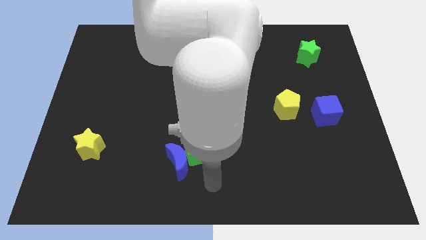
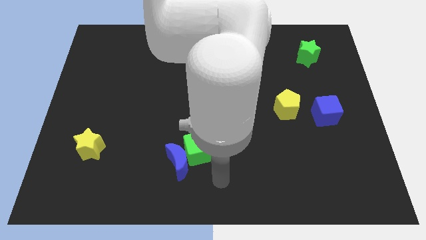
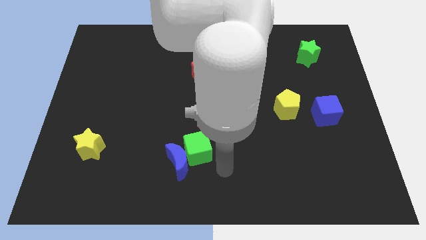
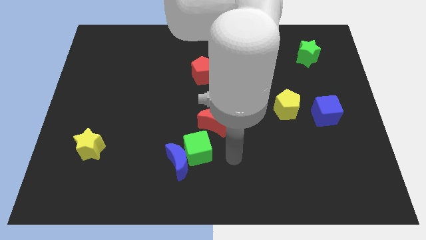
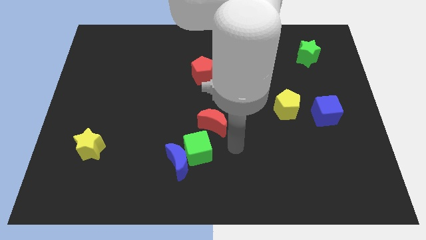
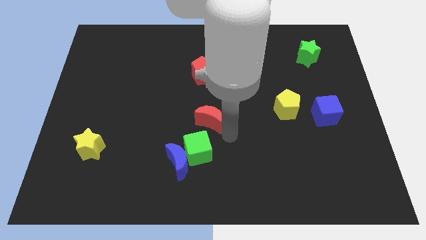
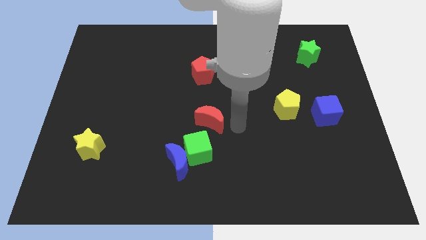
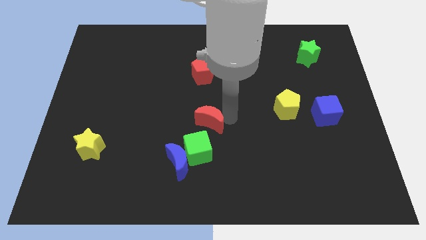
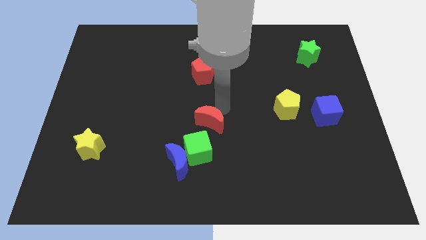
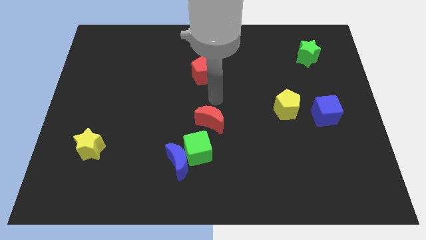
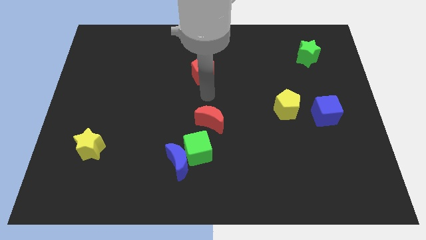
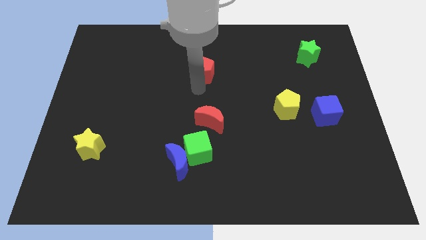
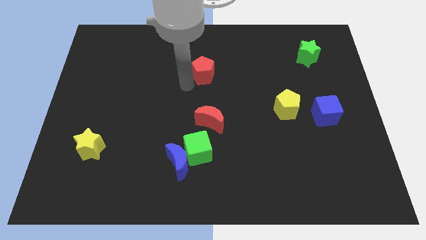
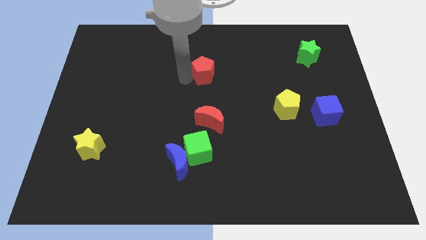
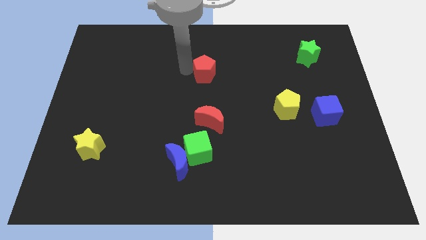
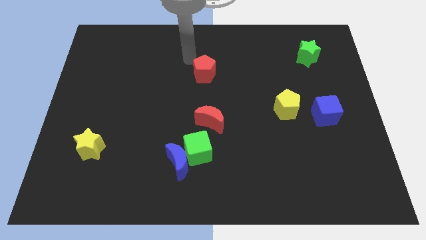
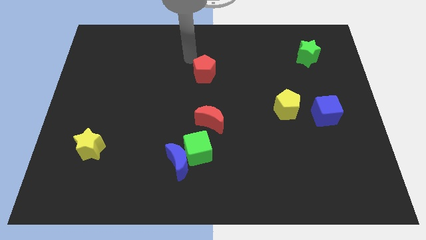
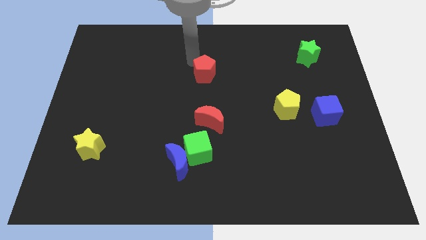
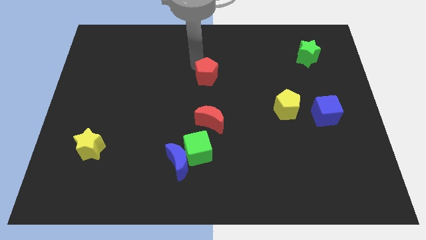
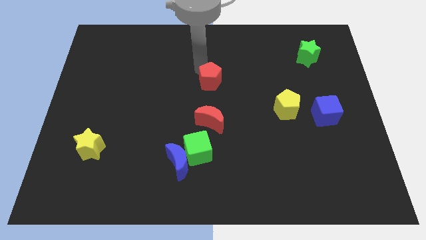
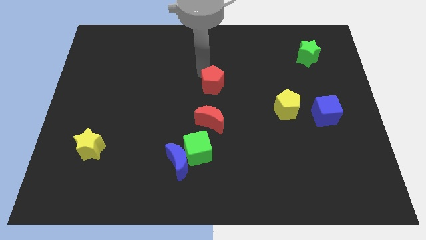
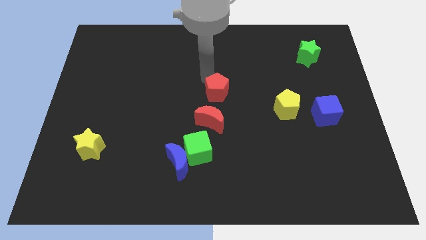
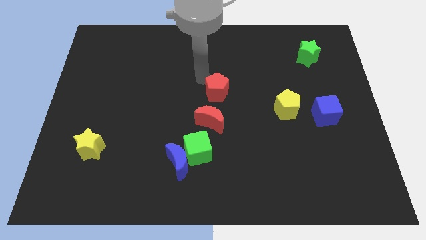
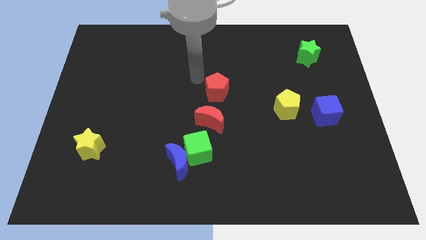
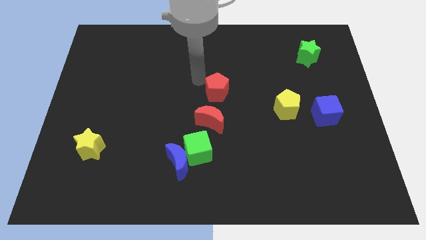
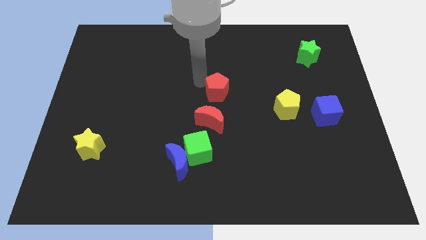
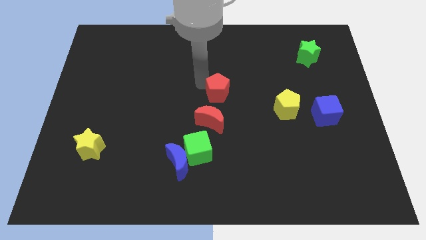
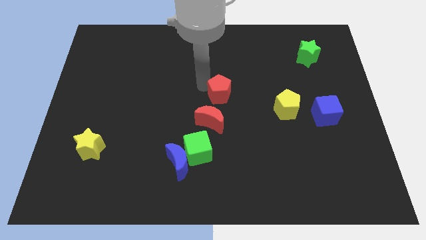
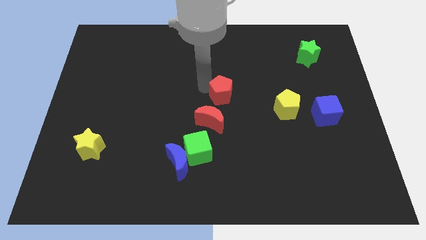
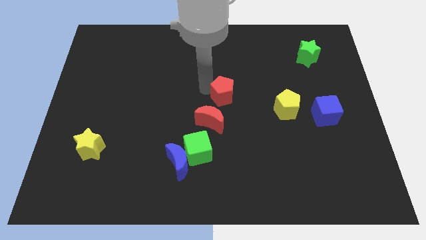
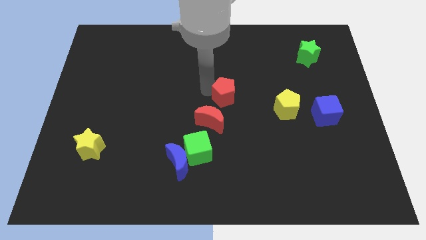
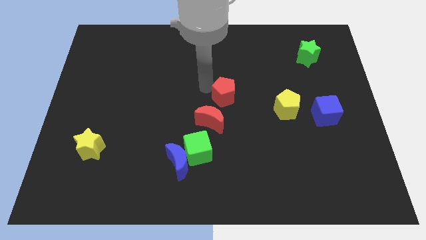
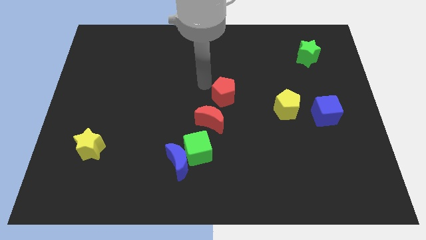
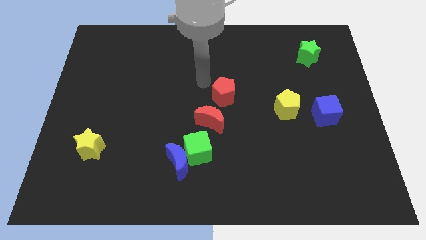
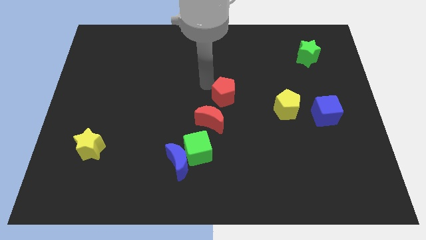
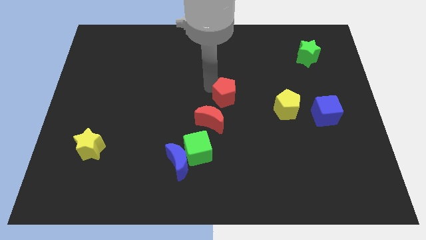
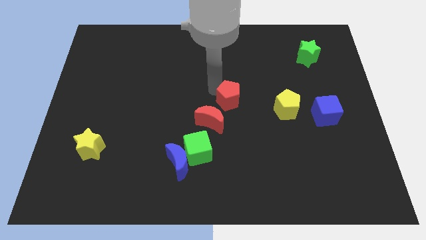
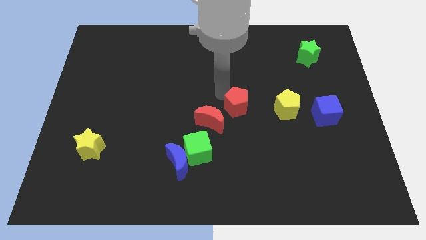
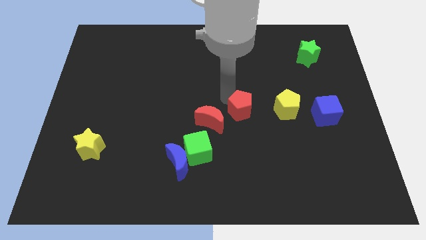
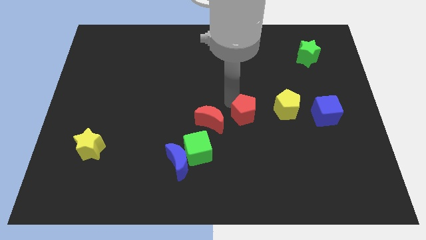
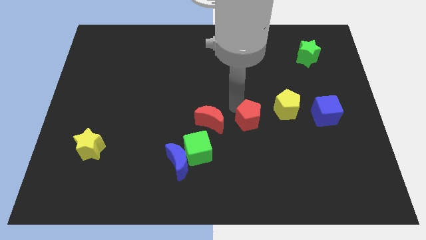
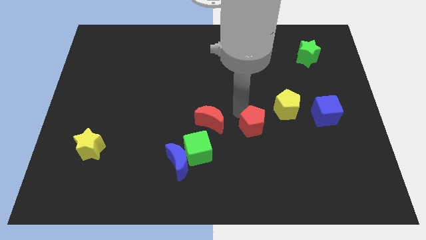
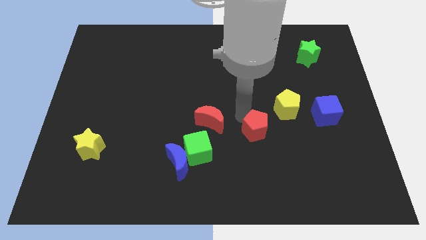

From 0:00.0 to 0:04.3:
slide the red pentagon diagonally down and to the right

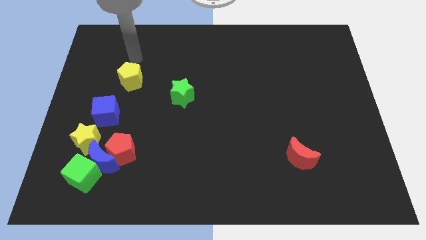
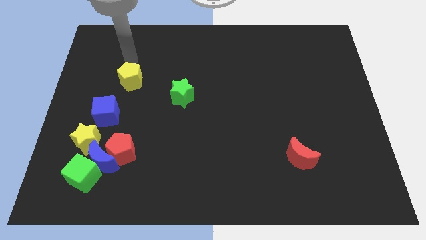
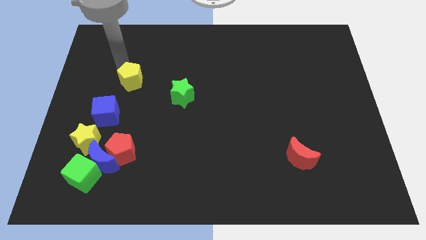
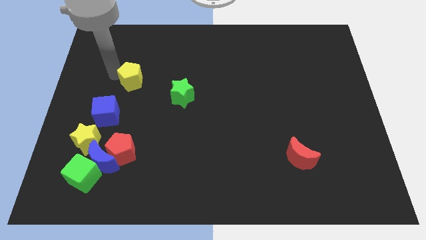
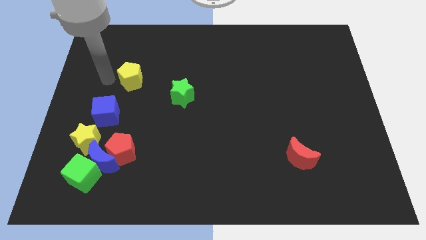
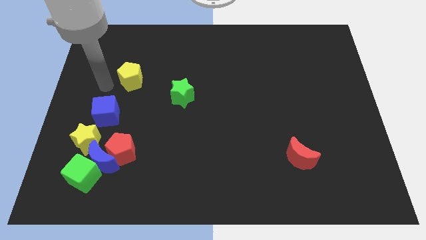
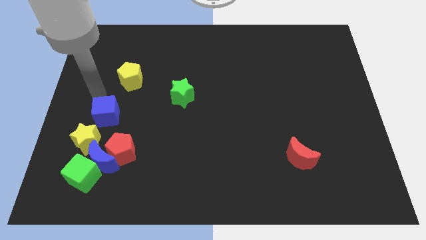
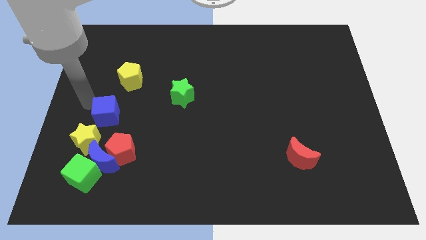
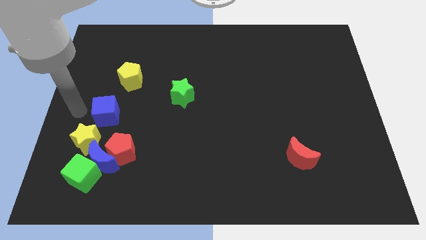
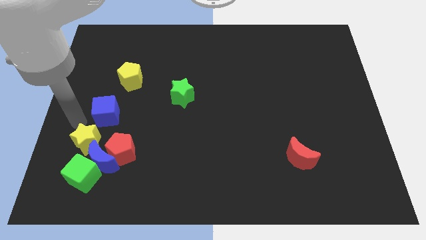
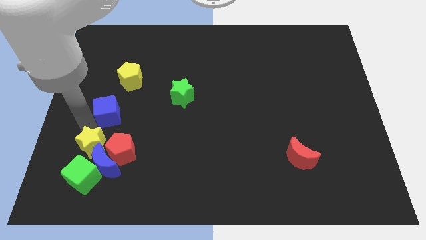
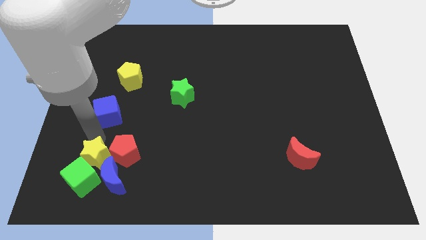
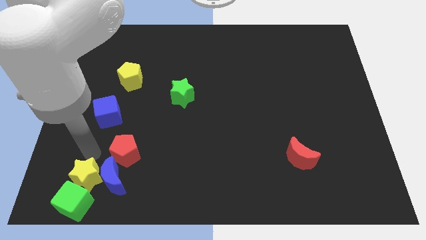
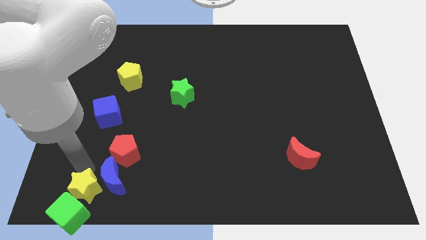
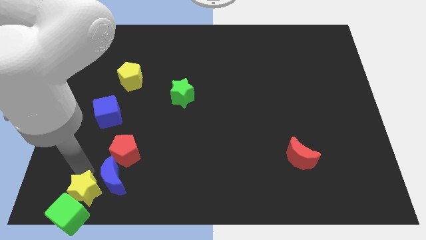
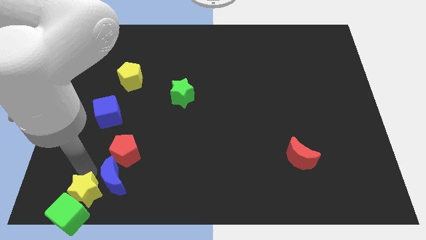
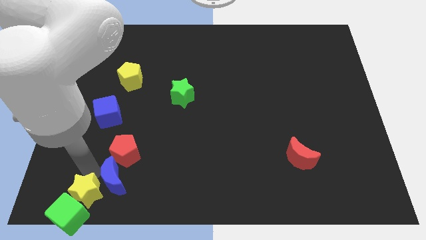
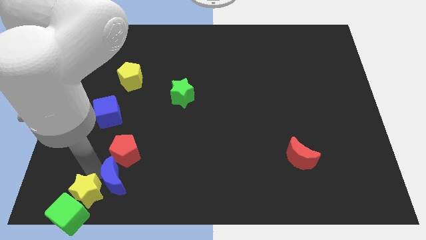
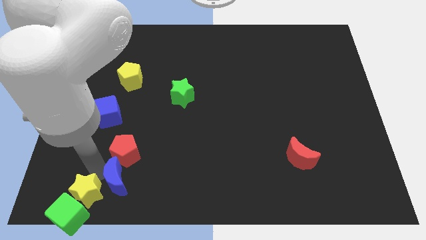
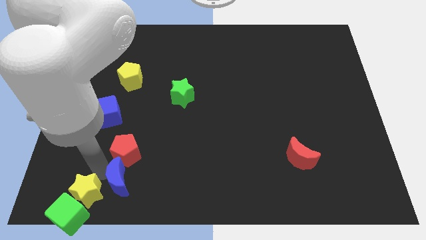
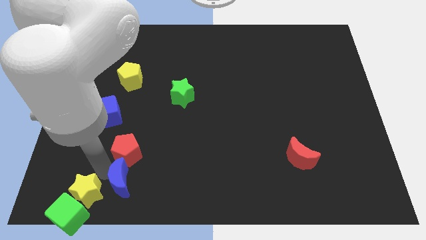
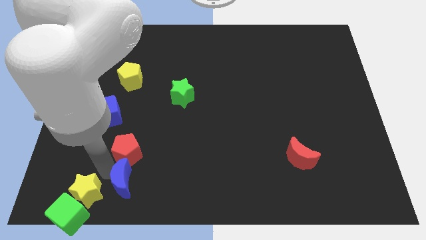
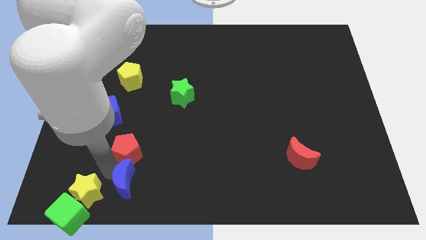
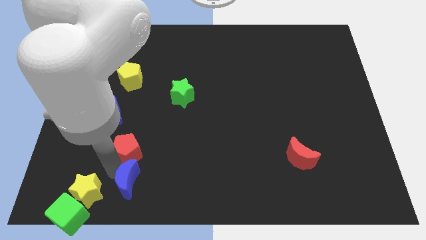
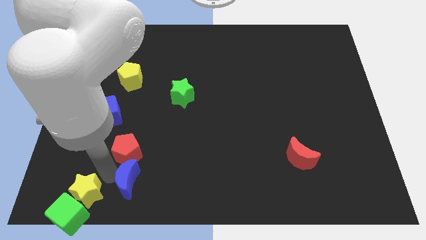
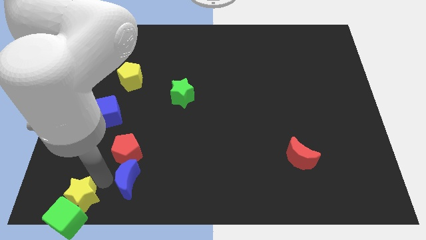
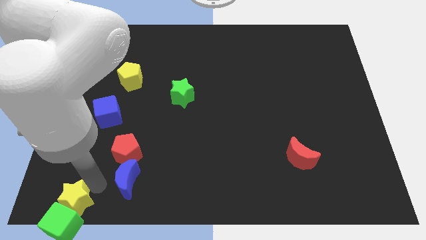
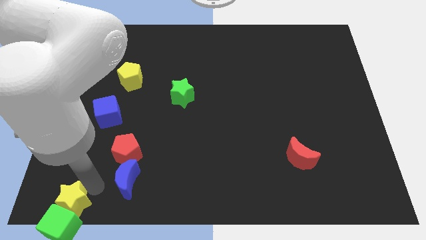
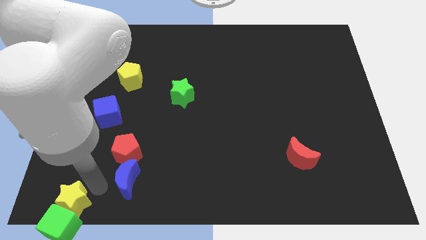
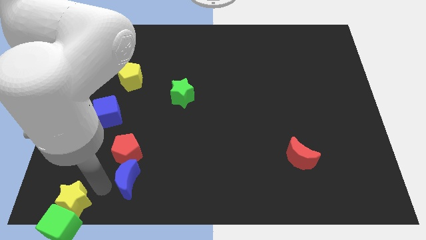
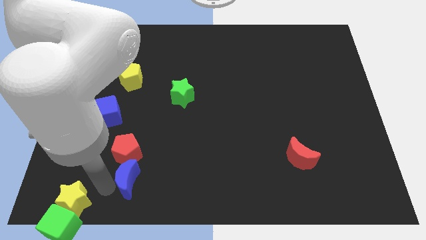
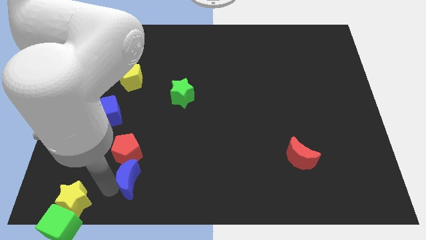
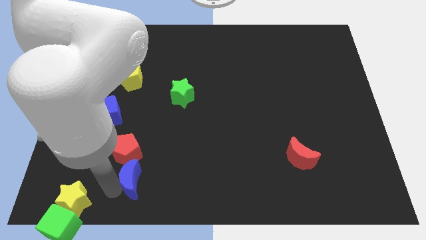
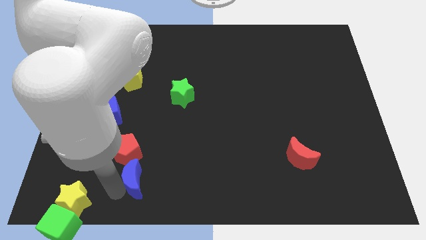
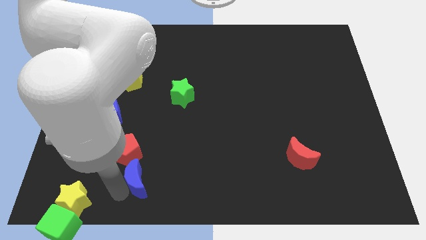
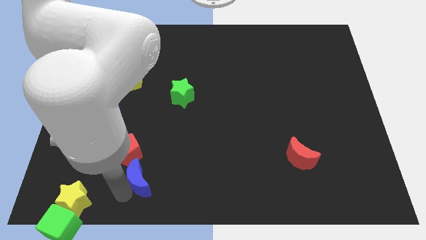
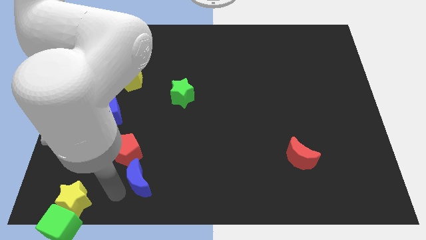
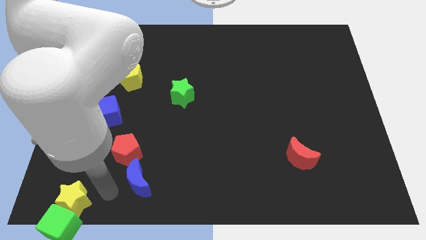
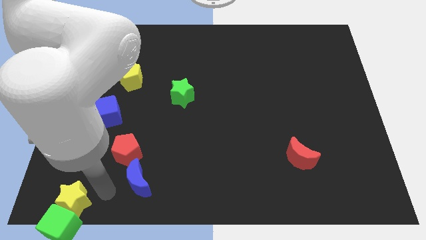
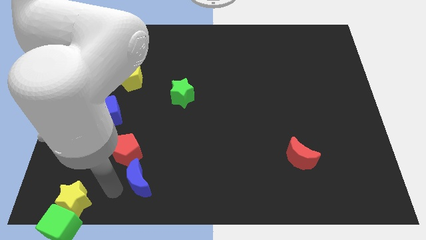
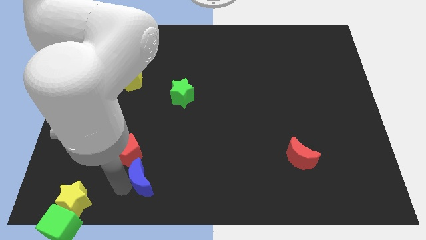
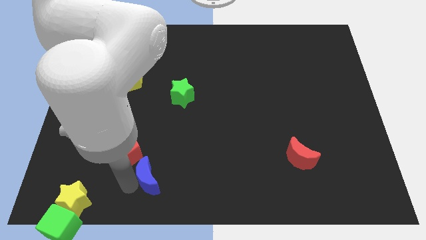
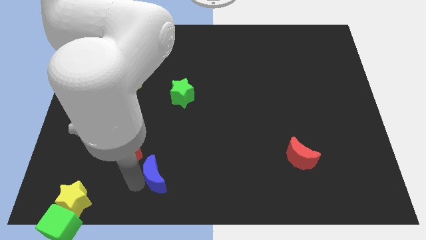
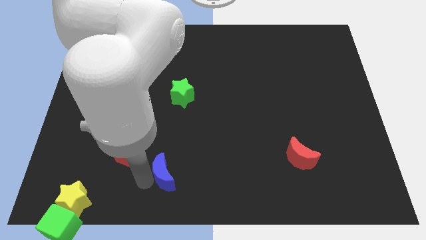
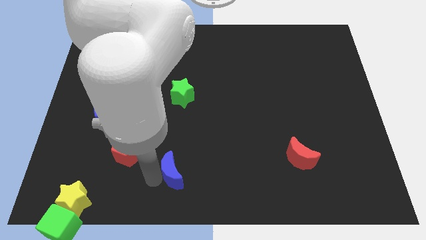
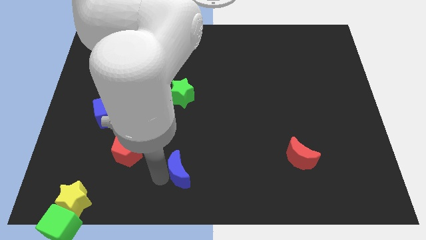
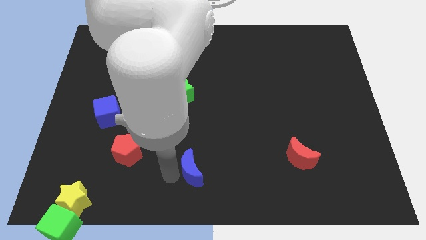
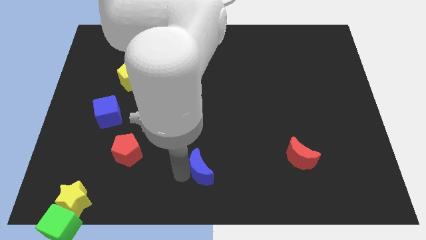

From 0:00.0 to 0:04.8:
push the blue moon right
